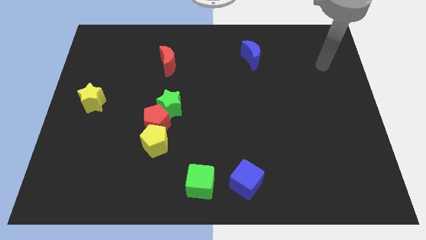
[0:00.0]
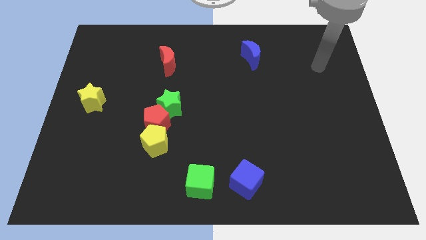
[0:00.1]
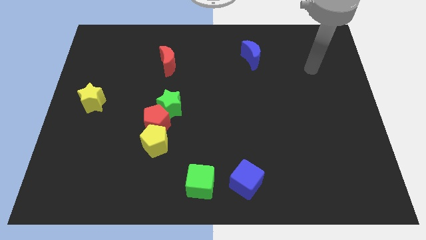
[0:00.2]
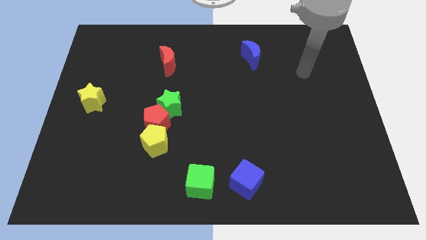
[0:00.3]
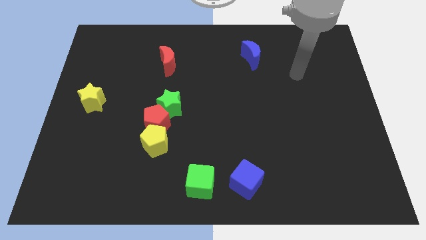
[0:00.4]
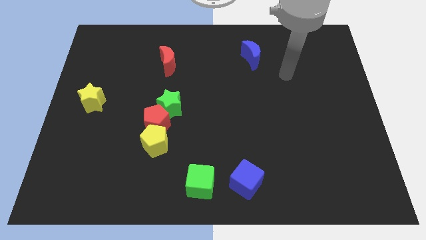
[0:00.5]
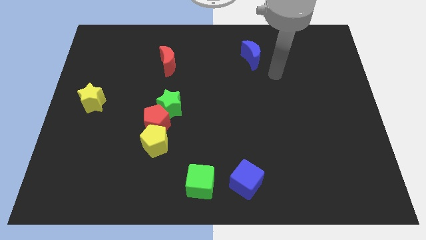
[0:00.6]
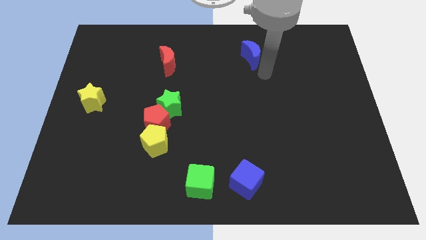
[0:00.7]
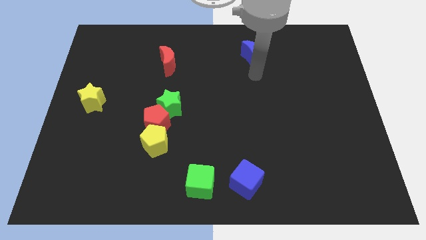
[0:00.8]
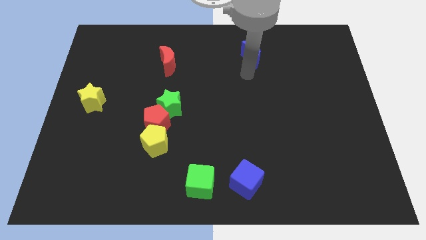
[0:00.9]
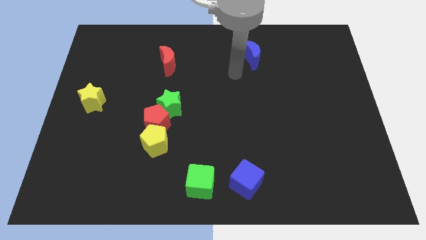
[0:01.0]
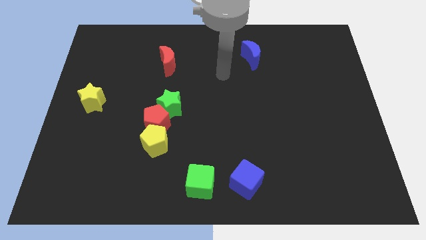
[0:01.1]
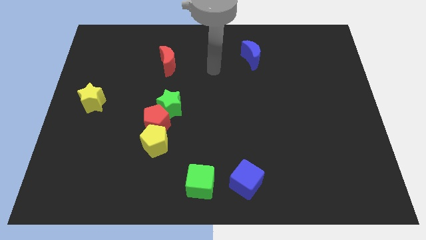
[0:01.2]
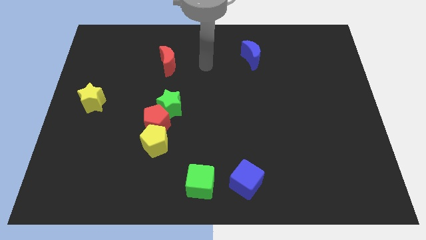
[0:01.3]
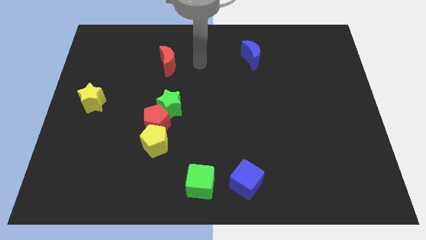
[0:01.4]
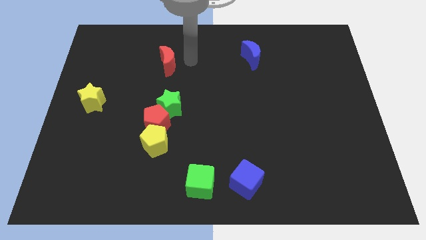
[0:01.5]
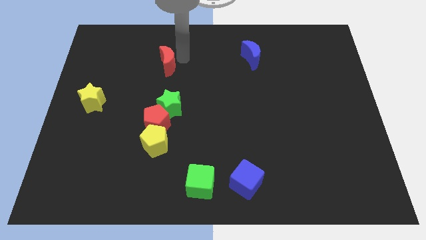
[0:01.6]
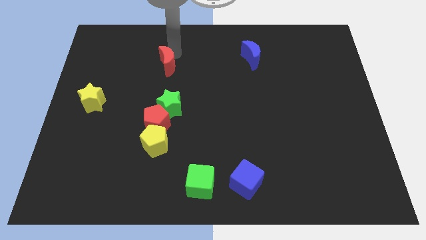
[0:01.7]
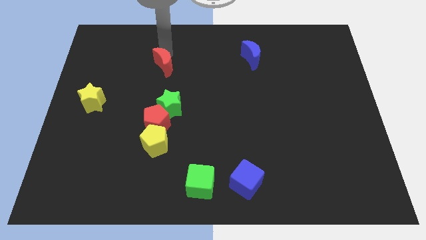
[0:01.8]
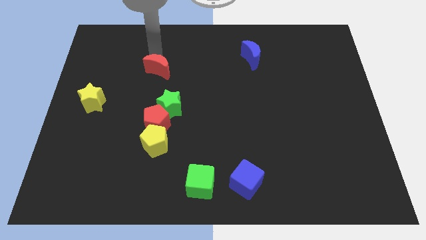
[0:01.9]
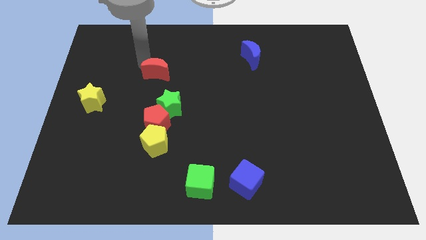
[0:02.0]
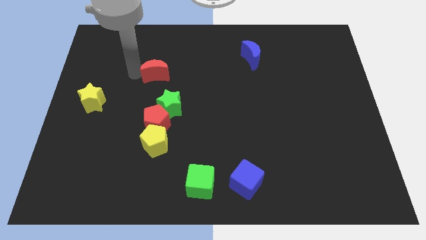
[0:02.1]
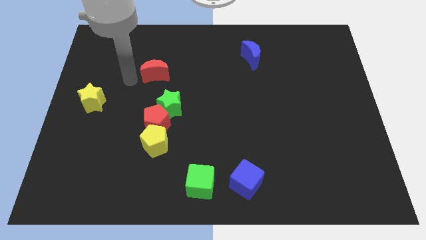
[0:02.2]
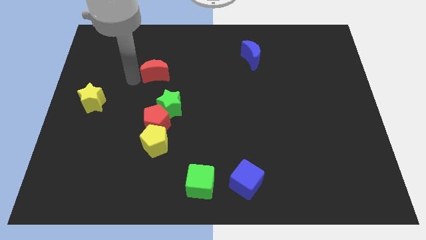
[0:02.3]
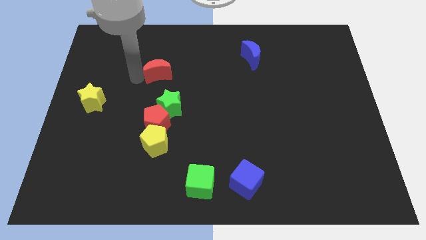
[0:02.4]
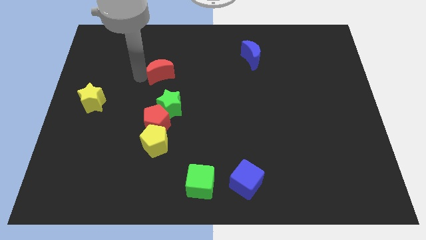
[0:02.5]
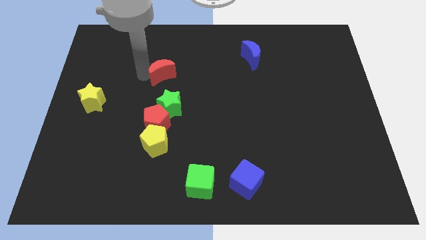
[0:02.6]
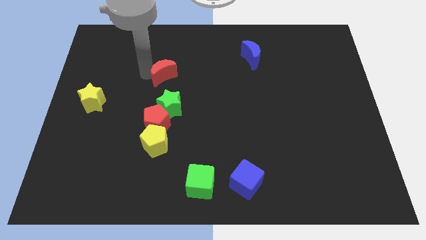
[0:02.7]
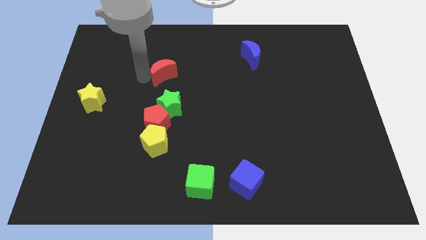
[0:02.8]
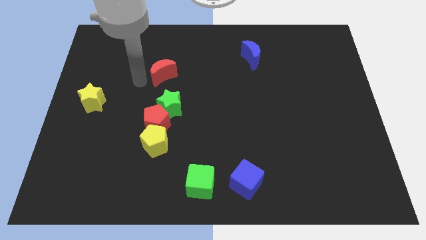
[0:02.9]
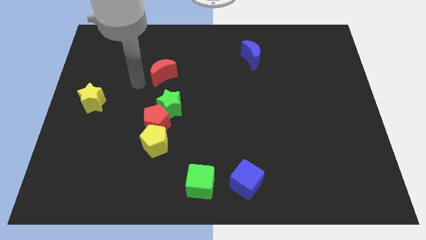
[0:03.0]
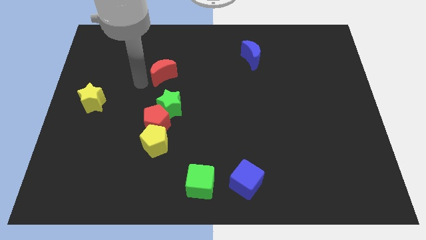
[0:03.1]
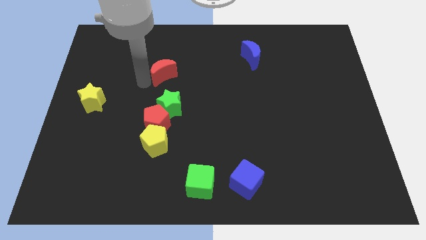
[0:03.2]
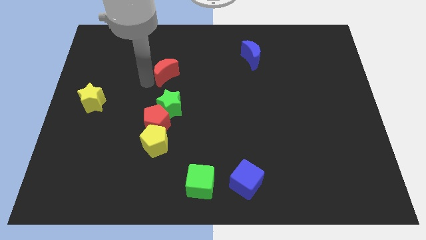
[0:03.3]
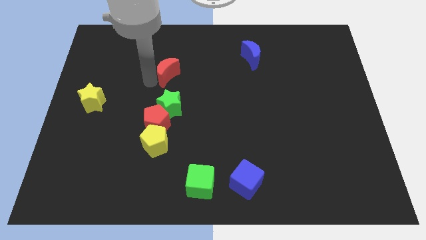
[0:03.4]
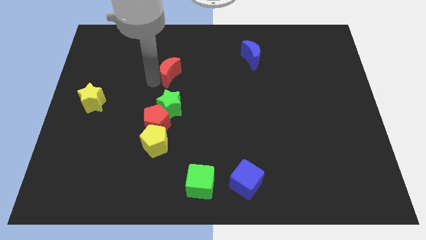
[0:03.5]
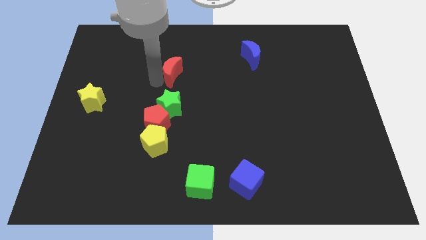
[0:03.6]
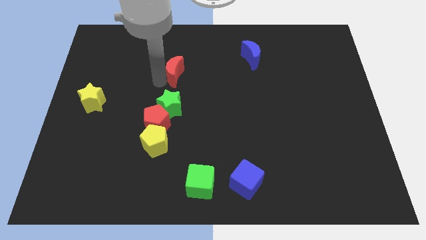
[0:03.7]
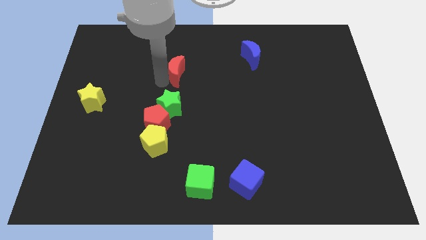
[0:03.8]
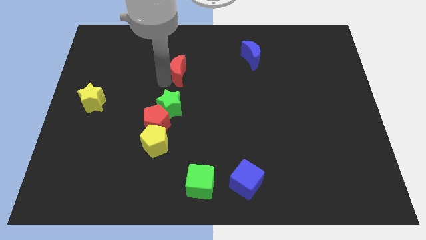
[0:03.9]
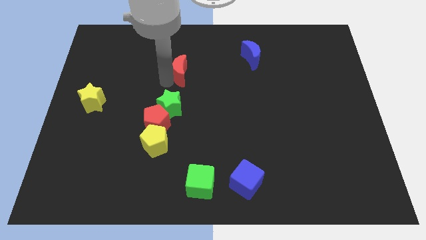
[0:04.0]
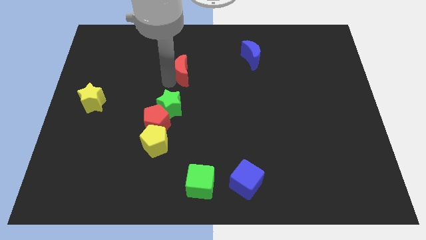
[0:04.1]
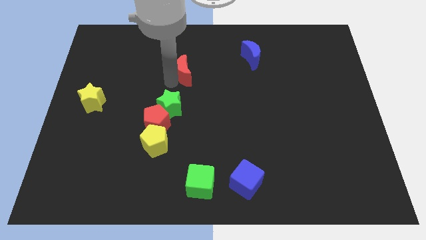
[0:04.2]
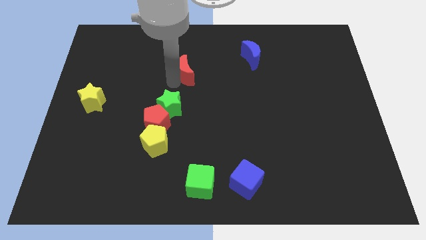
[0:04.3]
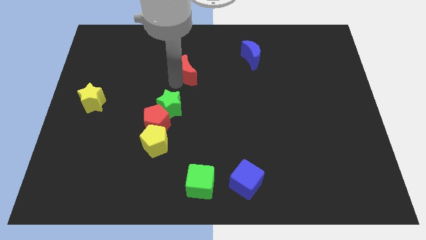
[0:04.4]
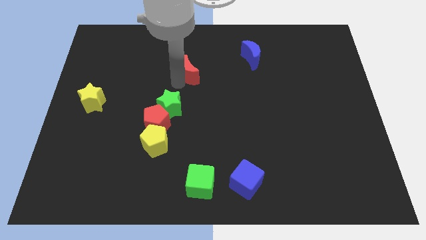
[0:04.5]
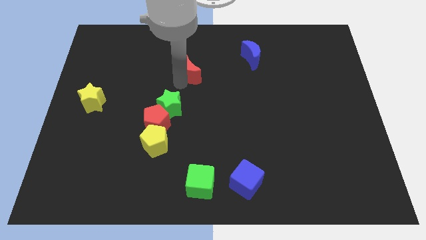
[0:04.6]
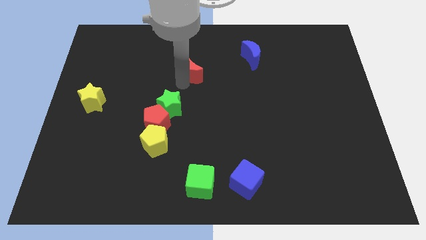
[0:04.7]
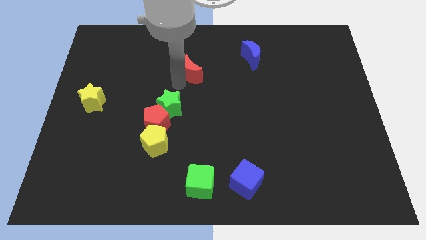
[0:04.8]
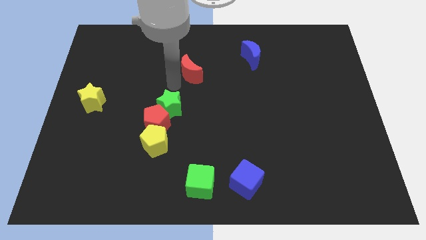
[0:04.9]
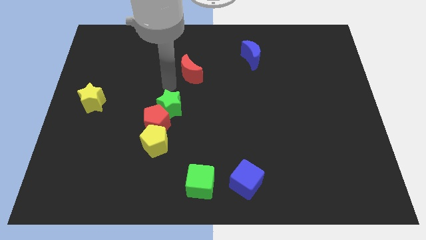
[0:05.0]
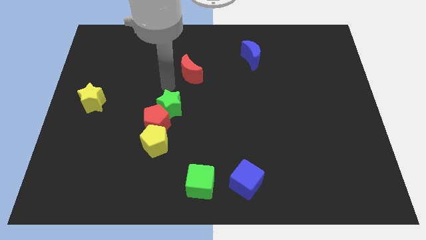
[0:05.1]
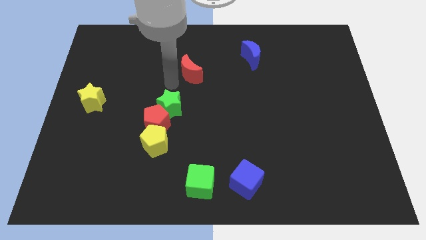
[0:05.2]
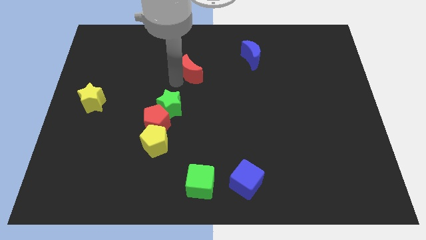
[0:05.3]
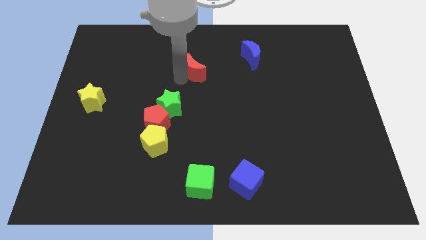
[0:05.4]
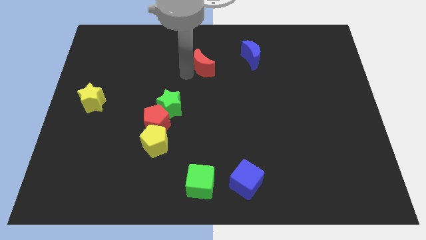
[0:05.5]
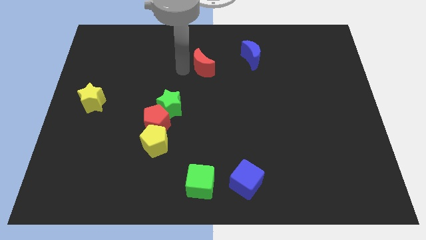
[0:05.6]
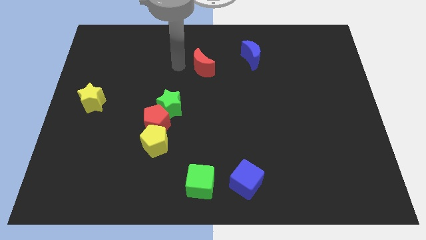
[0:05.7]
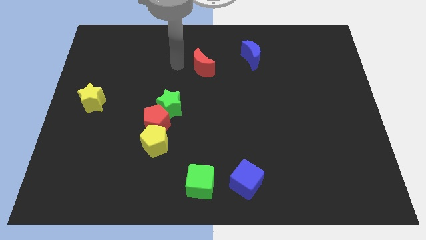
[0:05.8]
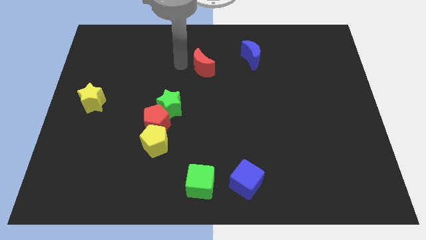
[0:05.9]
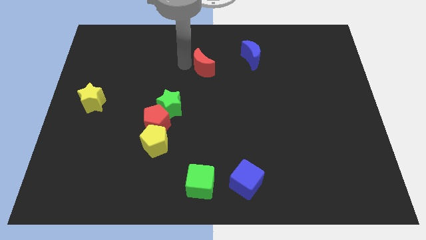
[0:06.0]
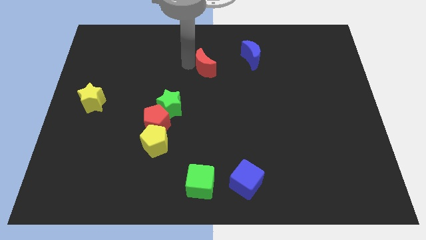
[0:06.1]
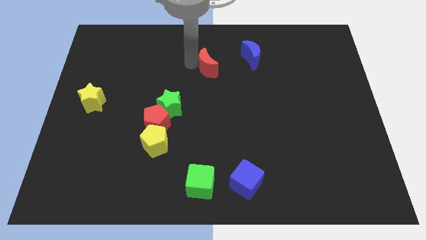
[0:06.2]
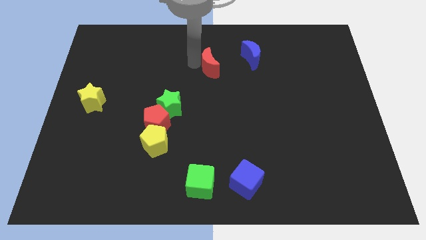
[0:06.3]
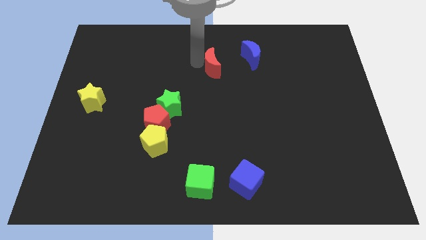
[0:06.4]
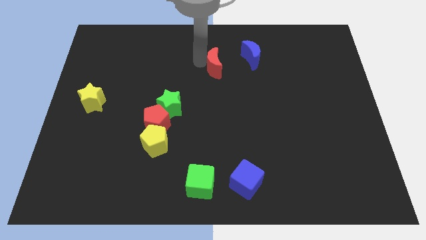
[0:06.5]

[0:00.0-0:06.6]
put the red moon to the bottom left of the blue moon

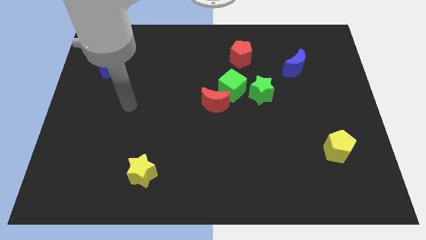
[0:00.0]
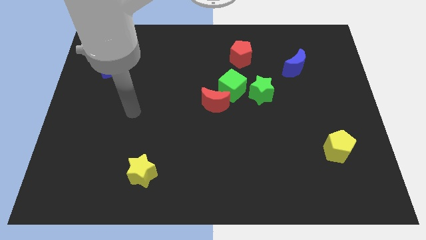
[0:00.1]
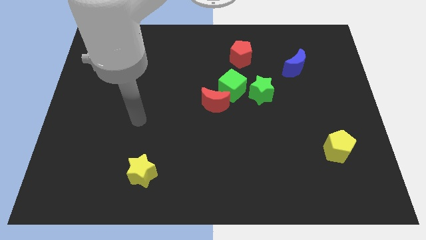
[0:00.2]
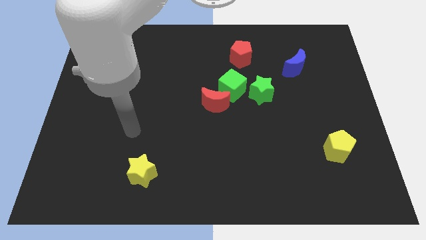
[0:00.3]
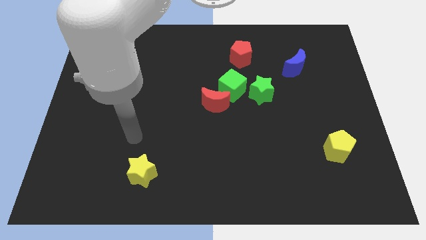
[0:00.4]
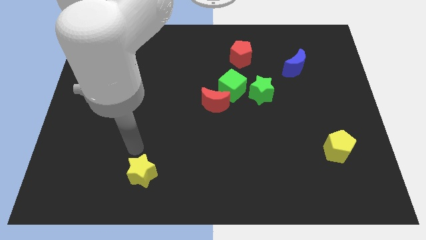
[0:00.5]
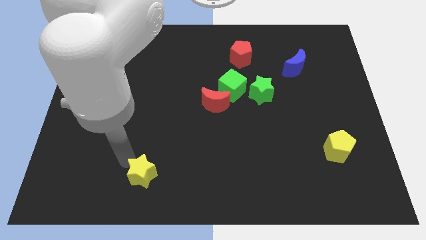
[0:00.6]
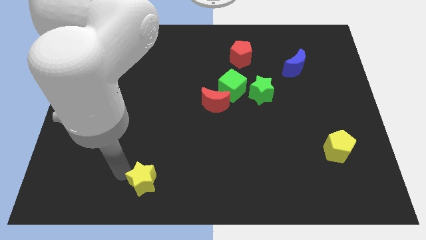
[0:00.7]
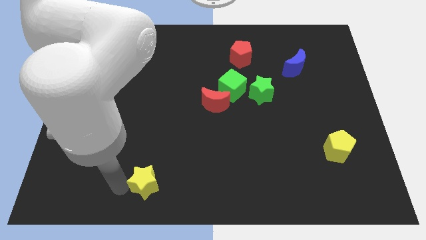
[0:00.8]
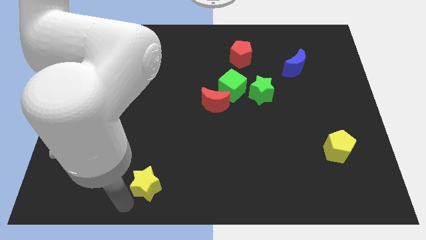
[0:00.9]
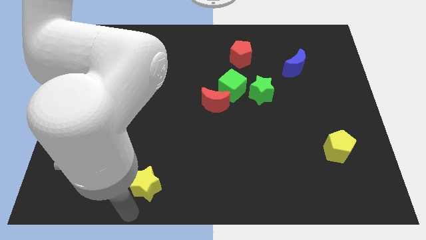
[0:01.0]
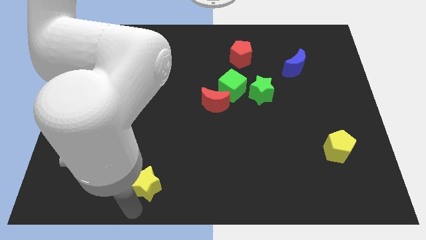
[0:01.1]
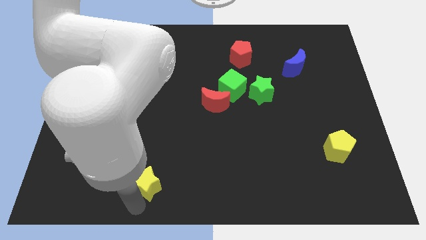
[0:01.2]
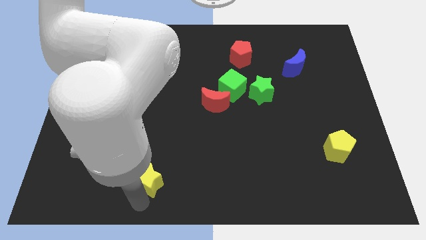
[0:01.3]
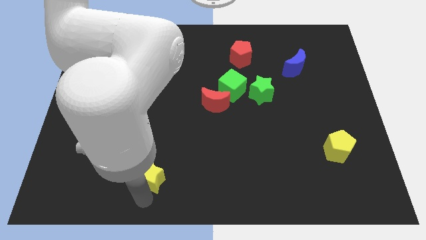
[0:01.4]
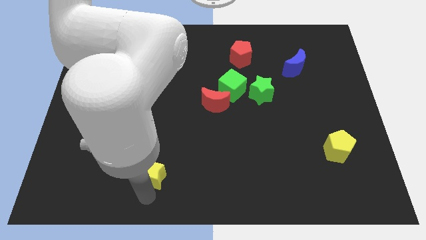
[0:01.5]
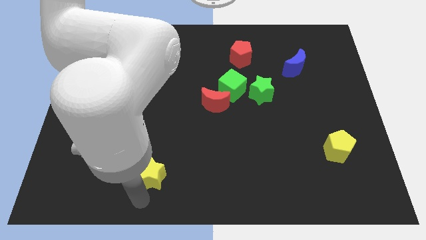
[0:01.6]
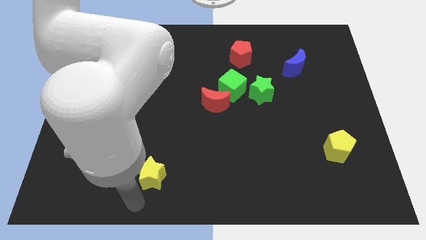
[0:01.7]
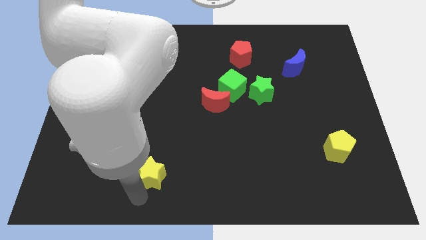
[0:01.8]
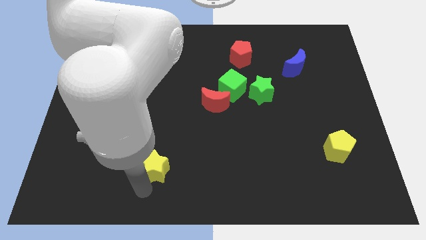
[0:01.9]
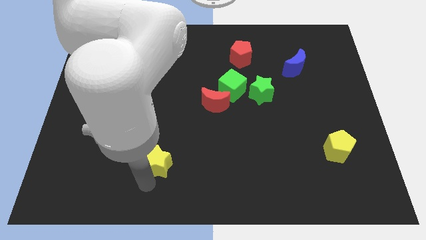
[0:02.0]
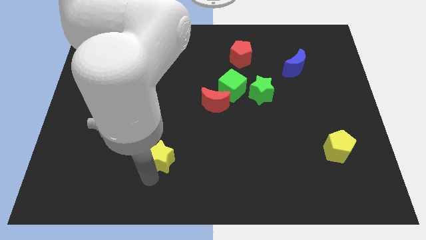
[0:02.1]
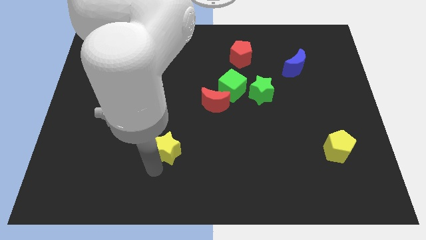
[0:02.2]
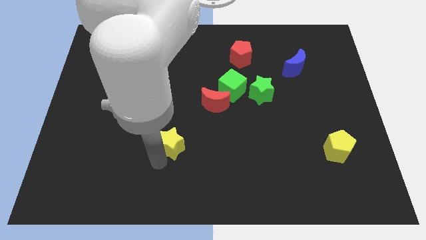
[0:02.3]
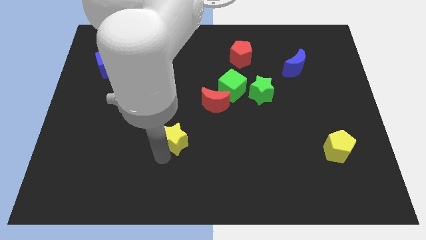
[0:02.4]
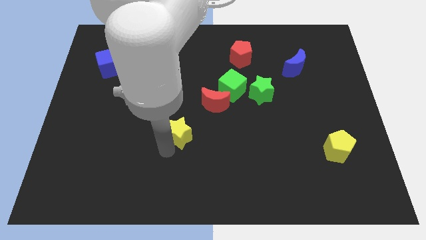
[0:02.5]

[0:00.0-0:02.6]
move the yellow star to the bottom left side of the red moon
